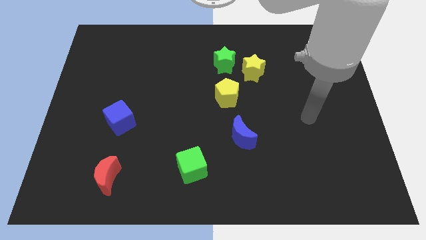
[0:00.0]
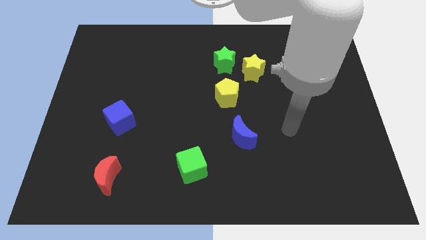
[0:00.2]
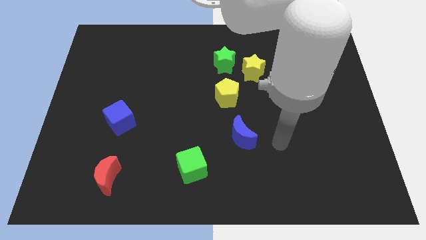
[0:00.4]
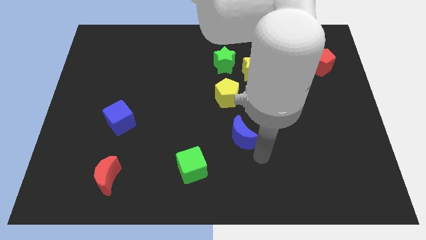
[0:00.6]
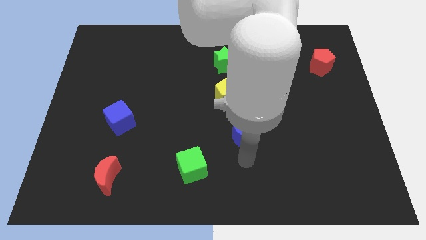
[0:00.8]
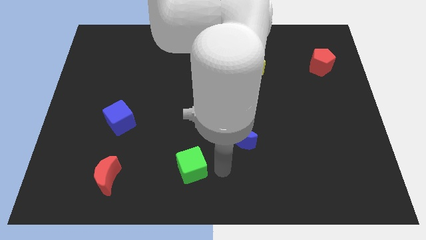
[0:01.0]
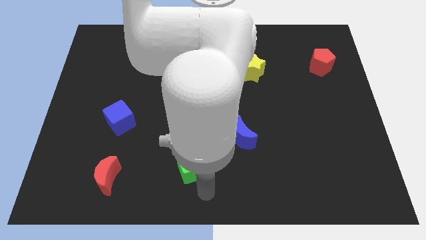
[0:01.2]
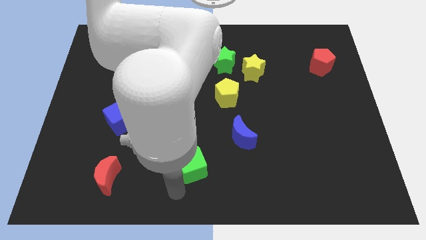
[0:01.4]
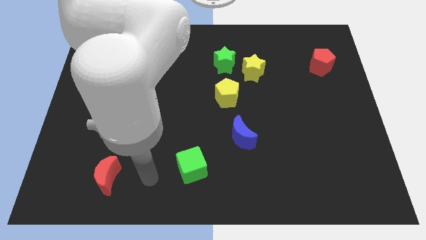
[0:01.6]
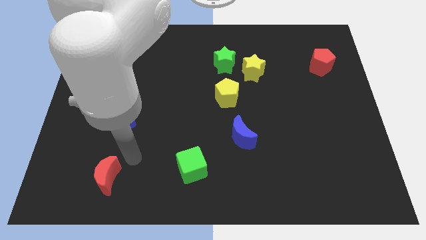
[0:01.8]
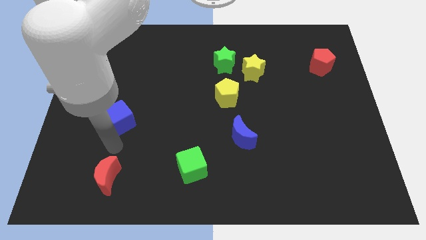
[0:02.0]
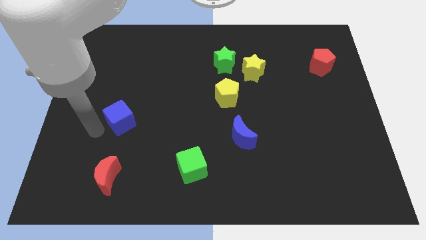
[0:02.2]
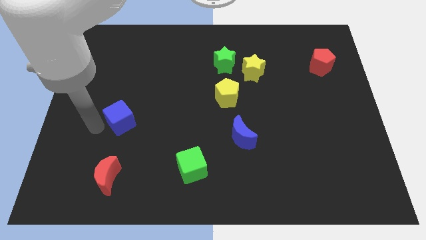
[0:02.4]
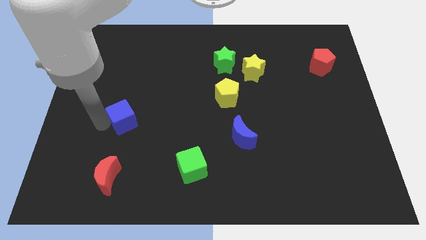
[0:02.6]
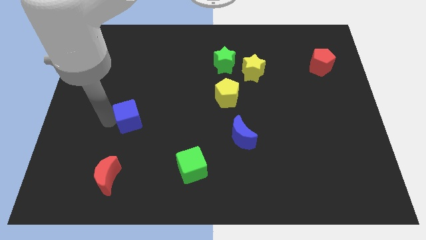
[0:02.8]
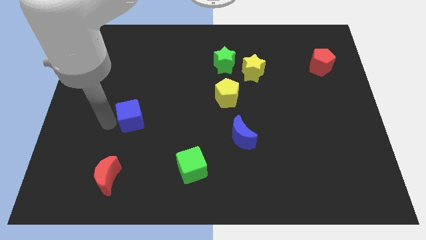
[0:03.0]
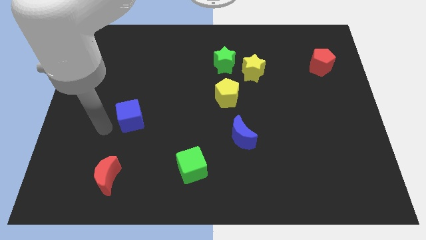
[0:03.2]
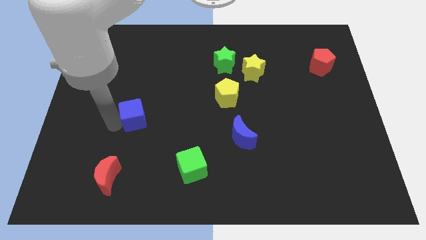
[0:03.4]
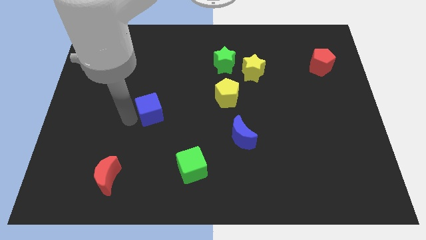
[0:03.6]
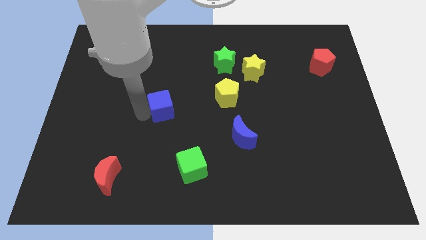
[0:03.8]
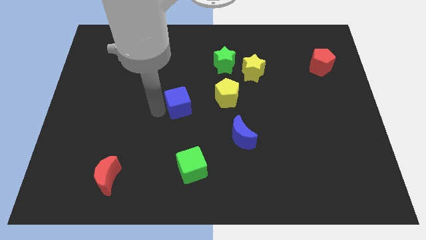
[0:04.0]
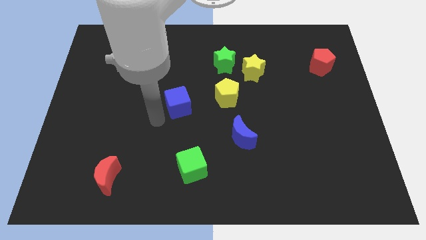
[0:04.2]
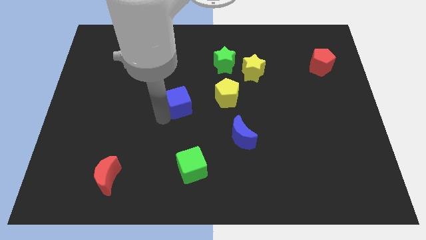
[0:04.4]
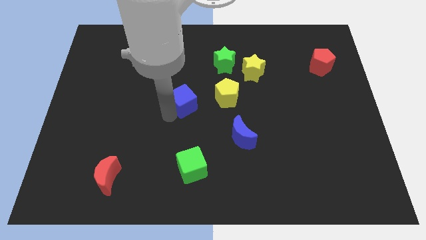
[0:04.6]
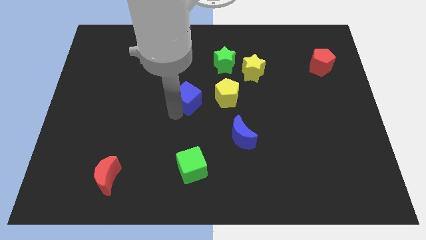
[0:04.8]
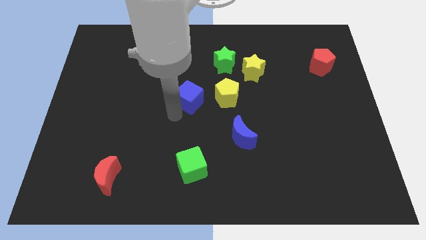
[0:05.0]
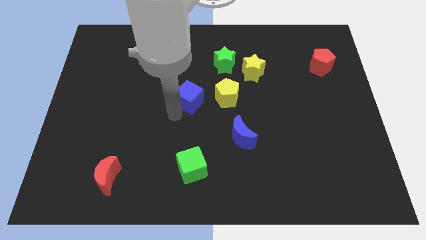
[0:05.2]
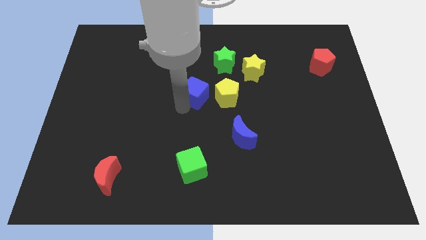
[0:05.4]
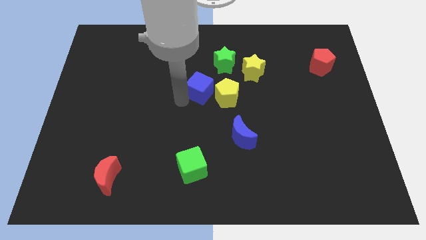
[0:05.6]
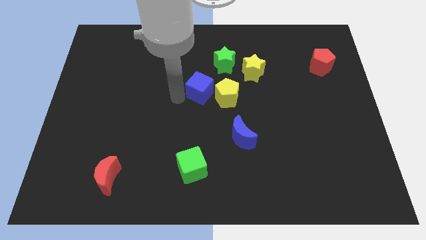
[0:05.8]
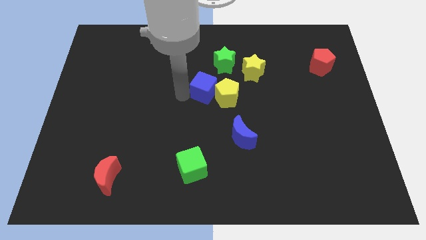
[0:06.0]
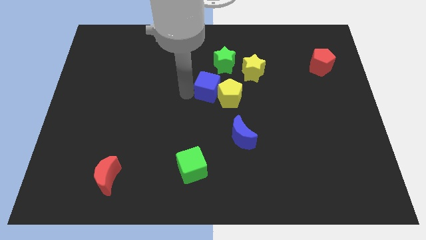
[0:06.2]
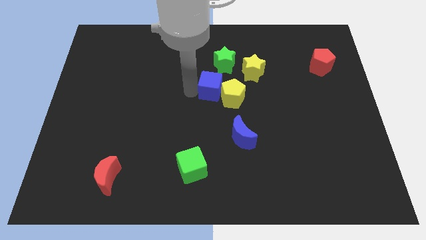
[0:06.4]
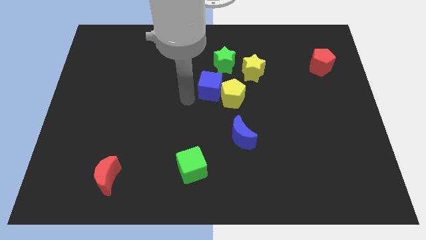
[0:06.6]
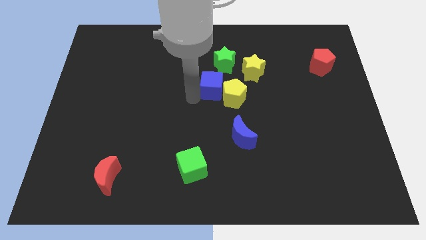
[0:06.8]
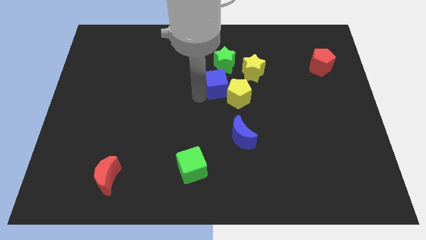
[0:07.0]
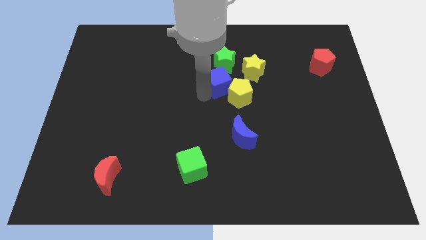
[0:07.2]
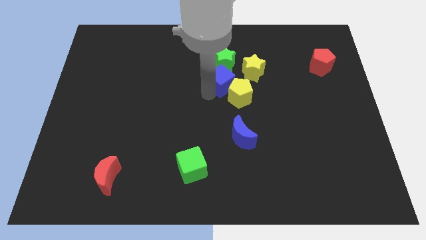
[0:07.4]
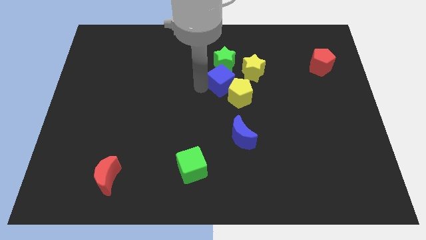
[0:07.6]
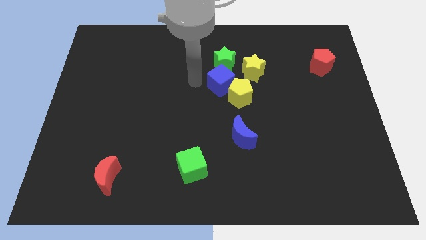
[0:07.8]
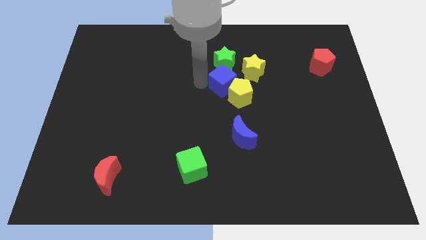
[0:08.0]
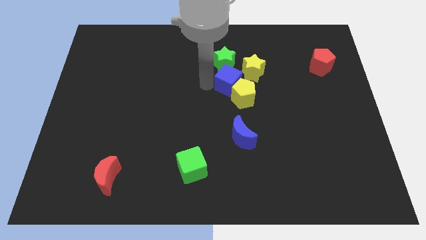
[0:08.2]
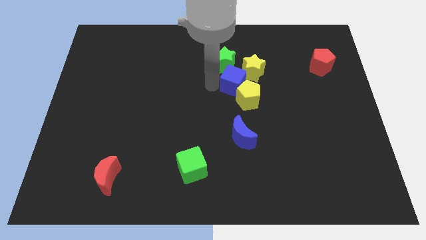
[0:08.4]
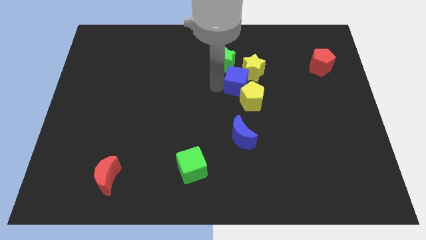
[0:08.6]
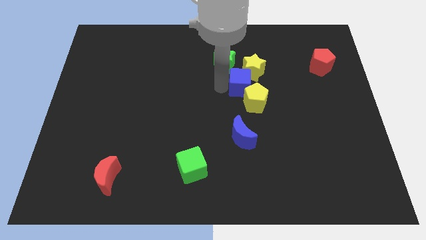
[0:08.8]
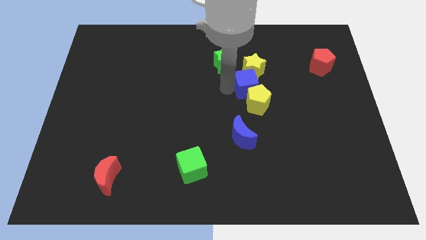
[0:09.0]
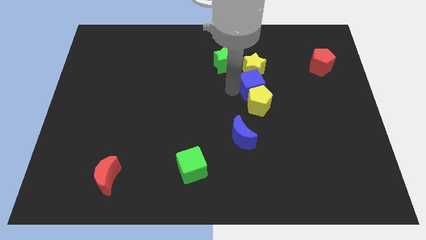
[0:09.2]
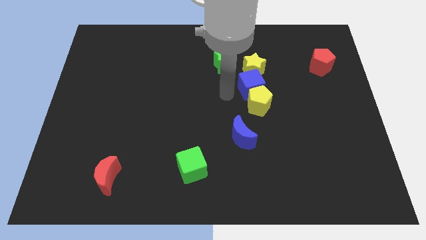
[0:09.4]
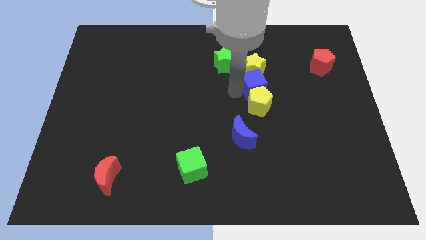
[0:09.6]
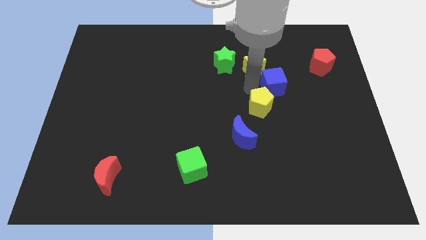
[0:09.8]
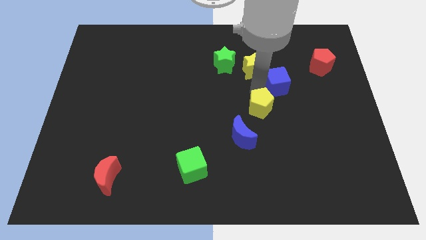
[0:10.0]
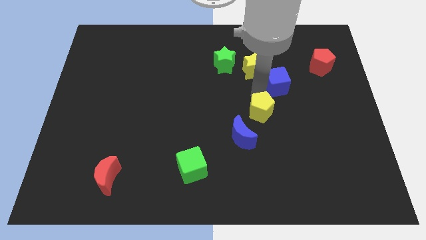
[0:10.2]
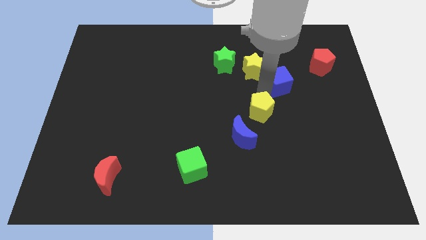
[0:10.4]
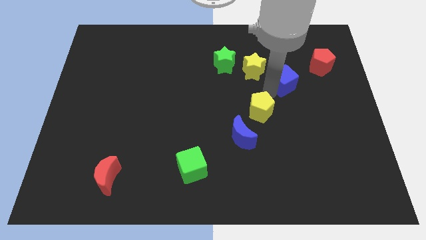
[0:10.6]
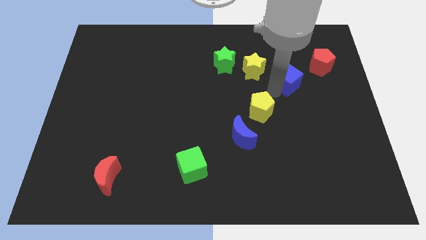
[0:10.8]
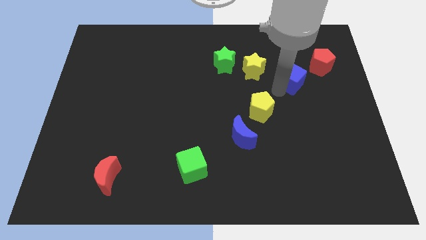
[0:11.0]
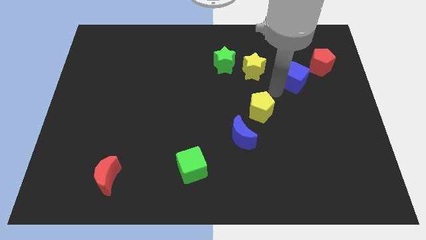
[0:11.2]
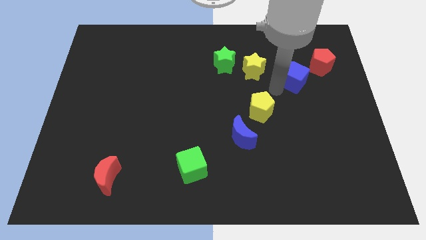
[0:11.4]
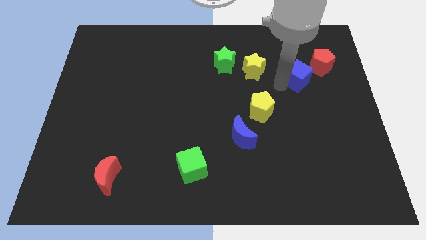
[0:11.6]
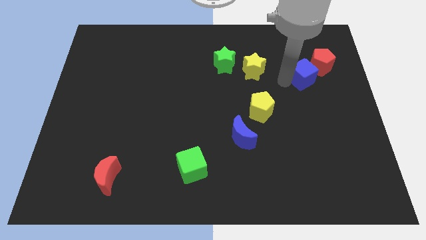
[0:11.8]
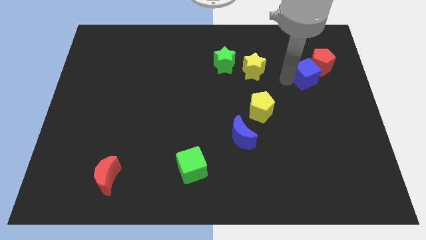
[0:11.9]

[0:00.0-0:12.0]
slide the blue cube next to the red pentagon
